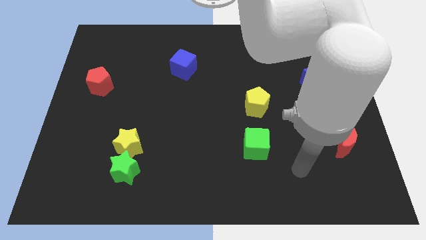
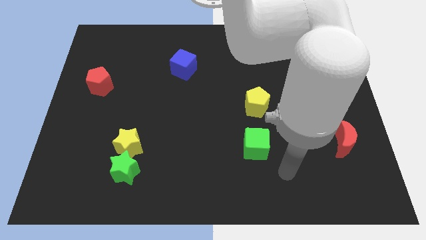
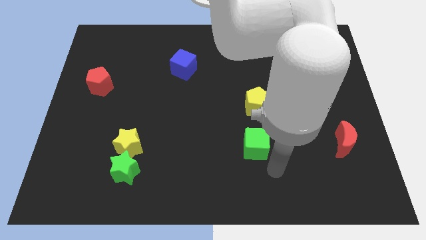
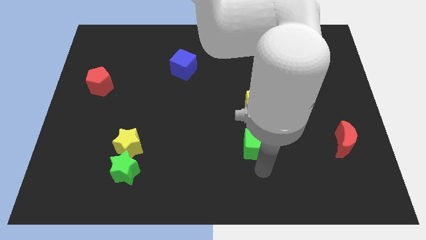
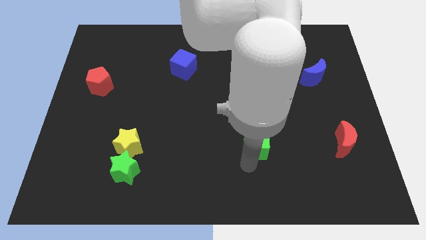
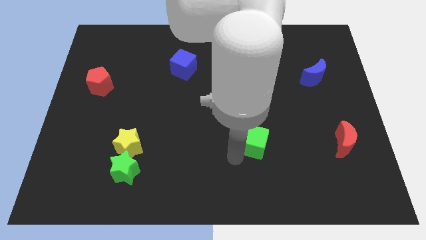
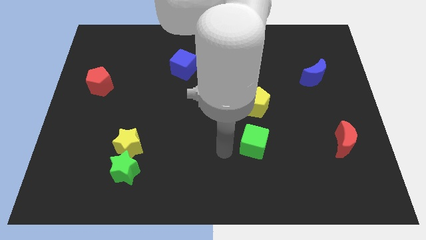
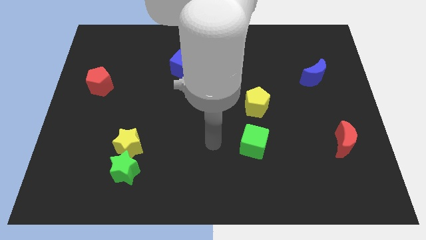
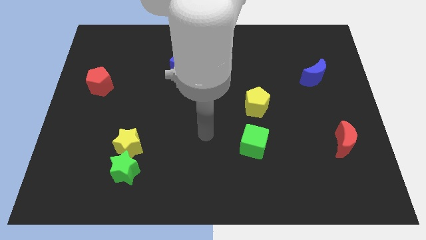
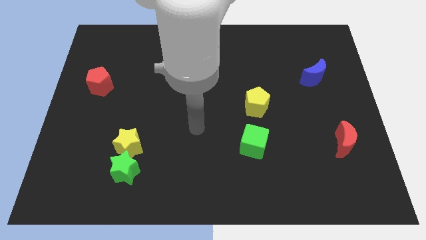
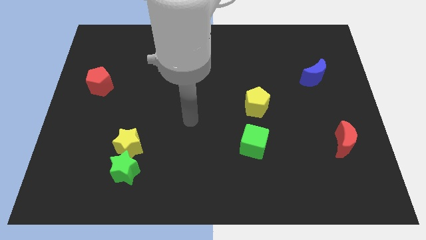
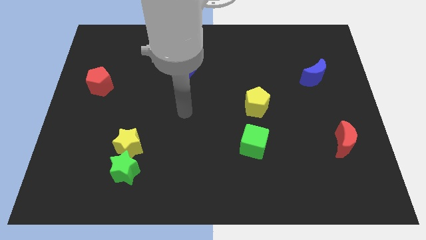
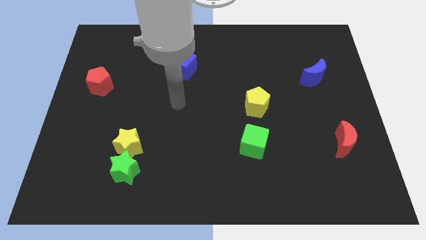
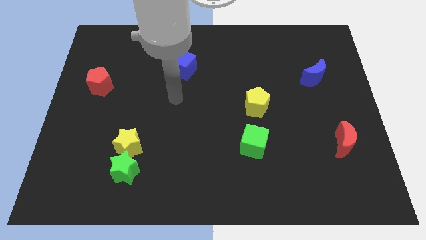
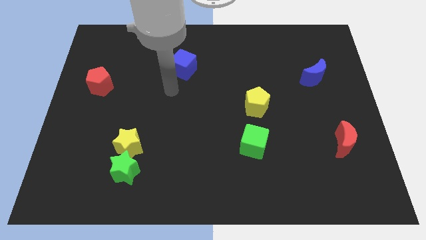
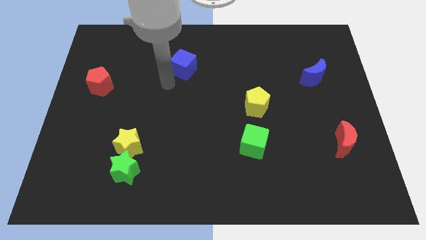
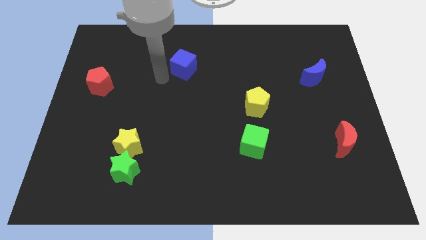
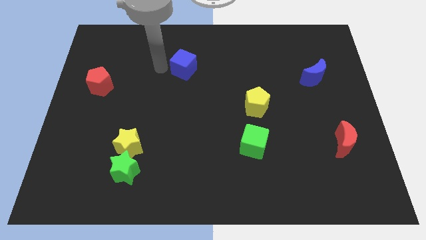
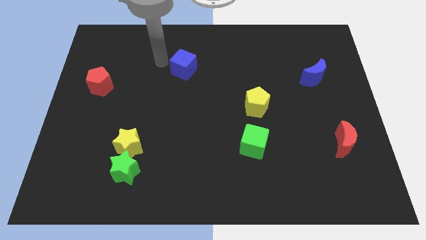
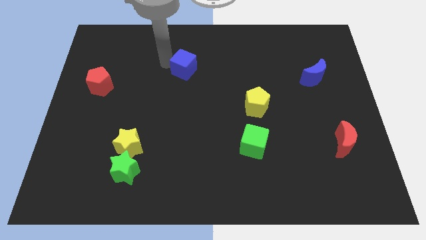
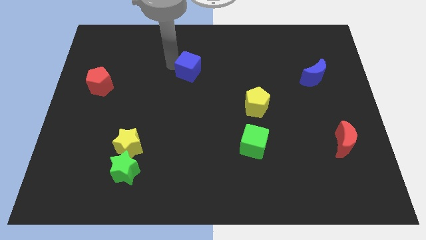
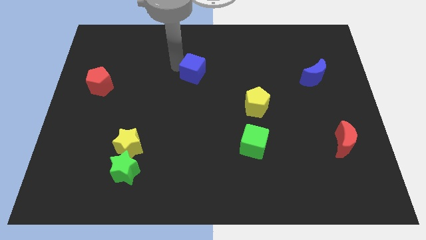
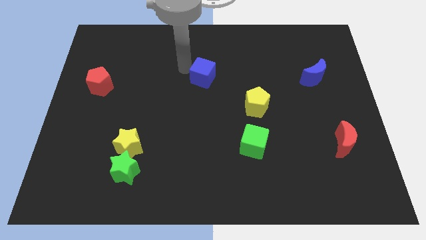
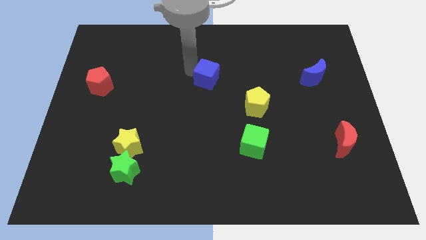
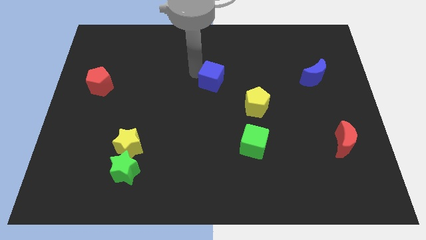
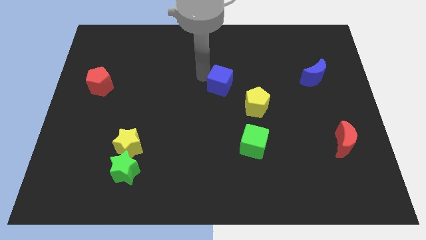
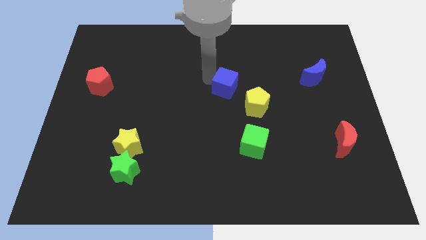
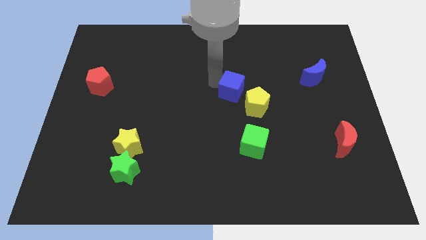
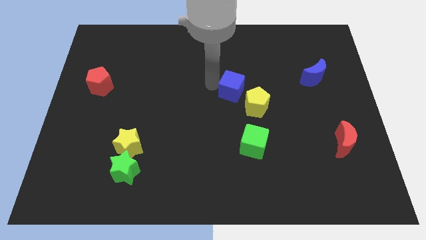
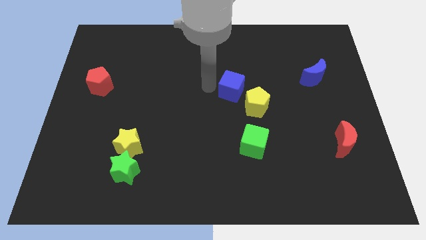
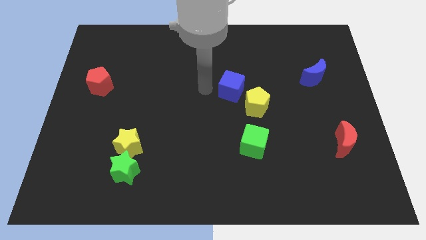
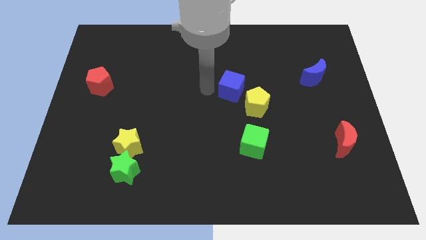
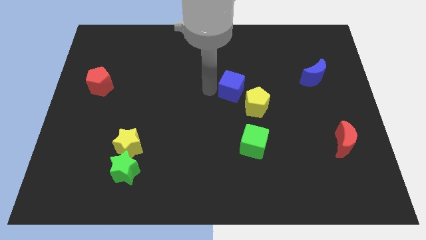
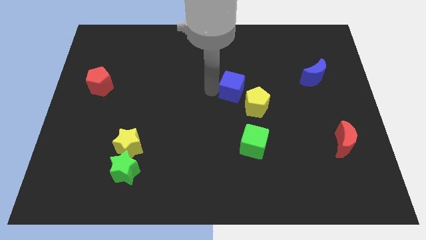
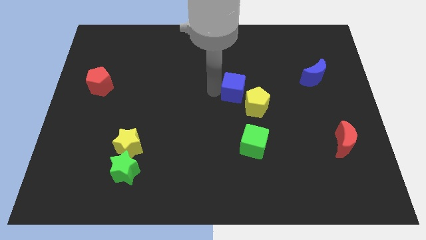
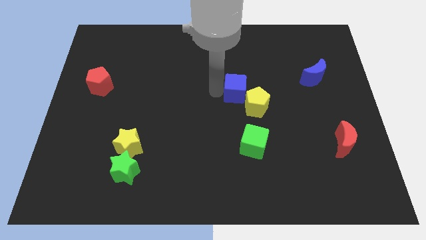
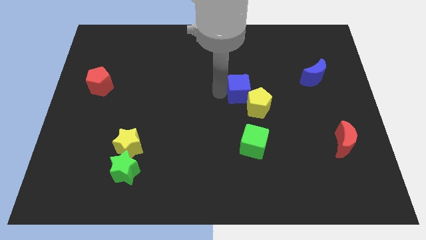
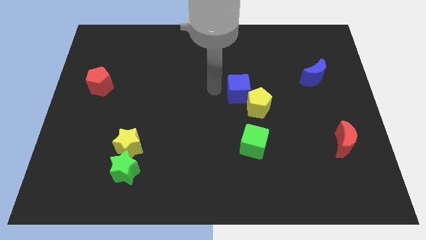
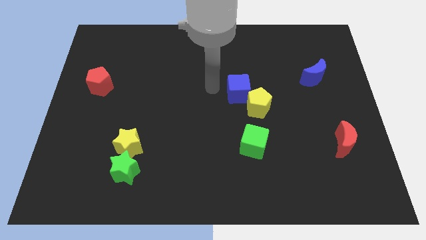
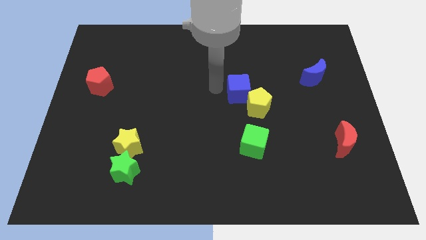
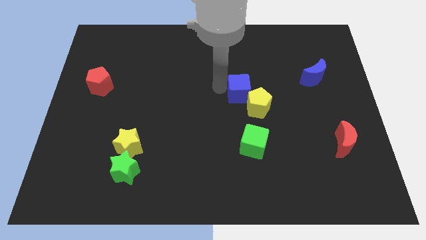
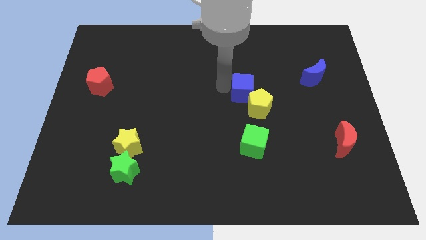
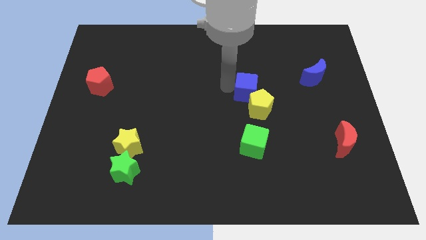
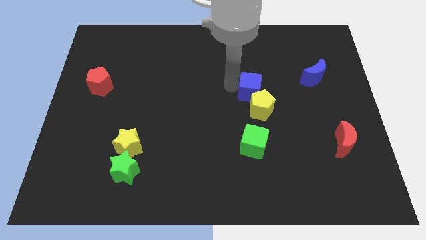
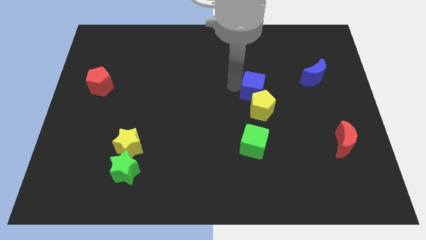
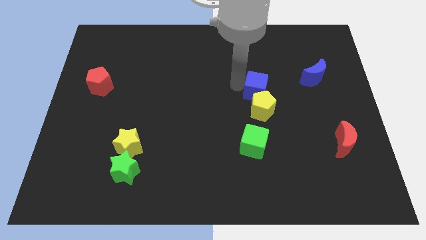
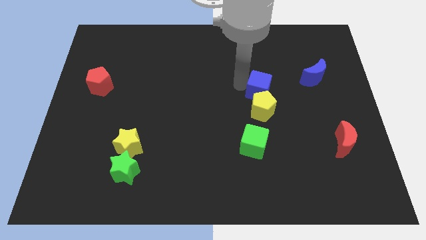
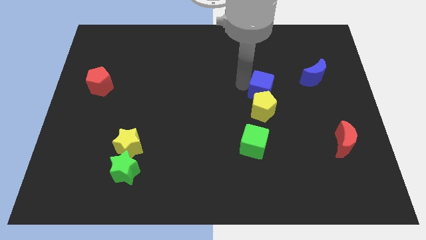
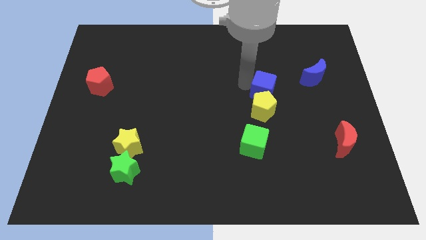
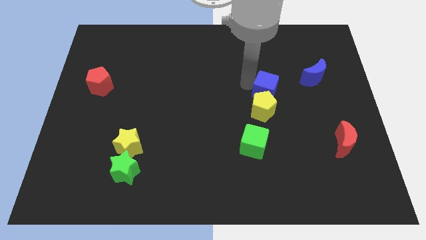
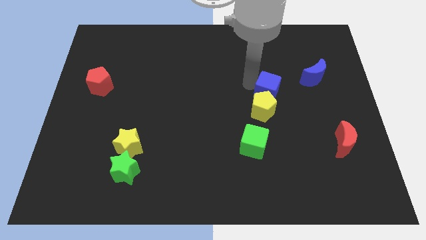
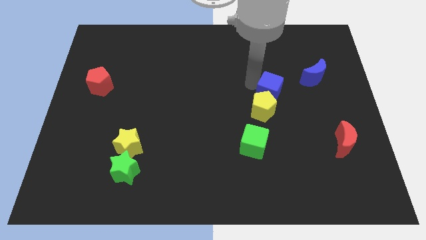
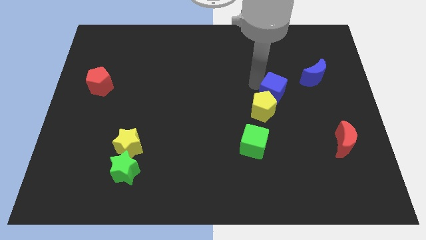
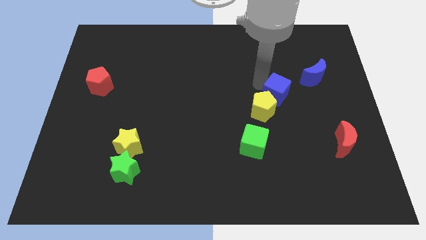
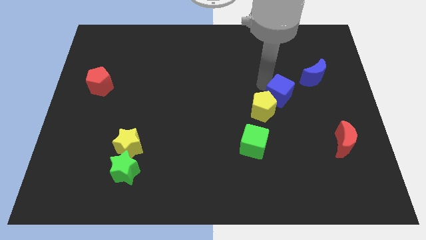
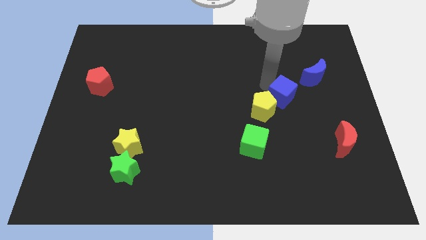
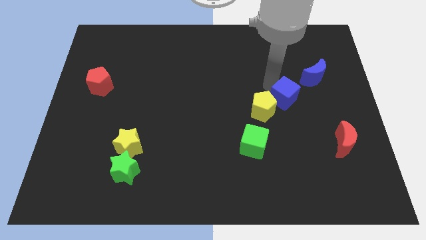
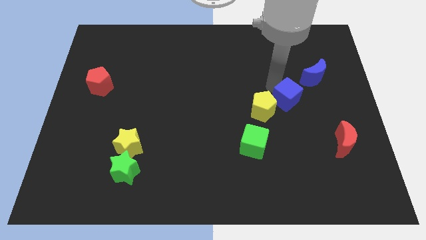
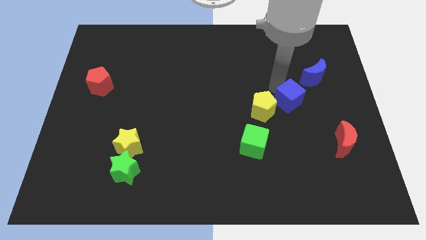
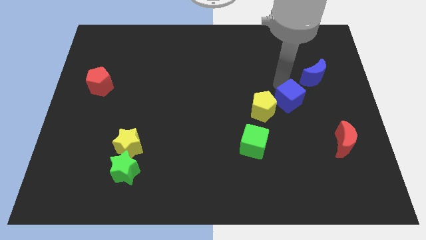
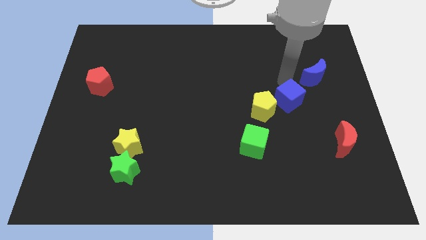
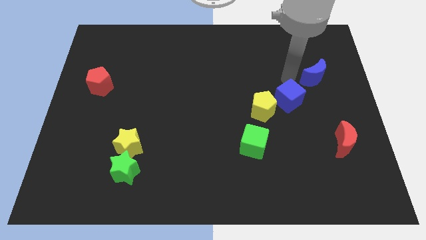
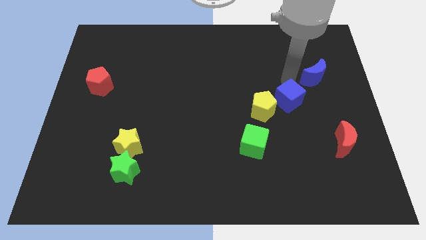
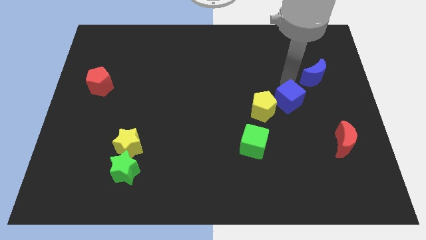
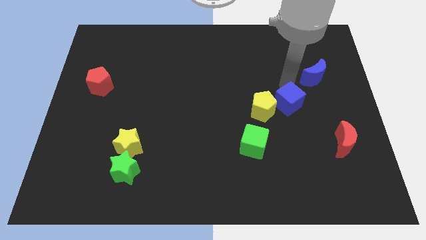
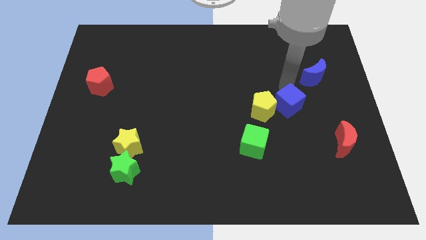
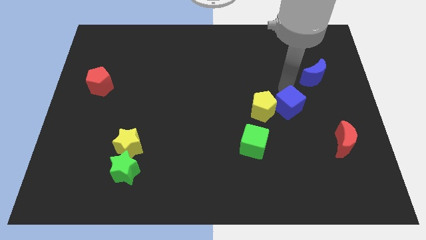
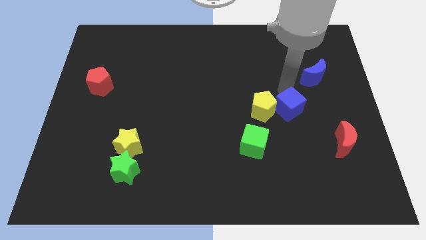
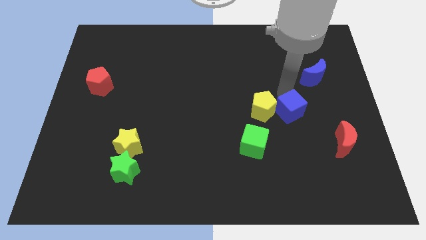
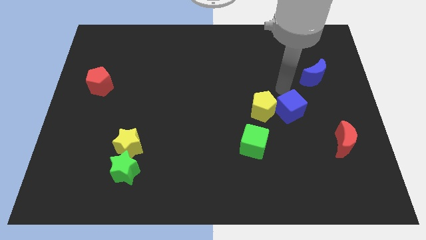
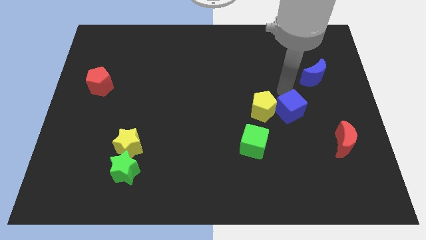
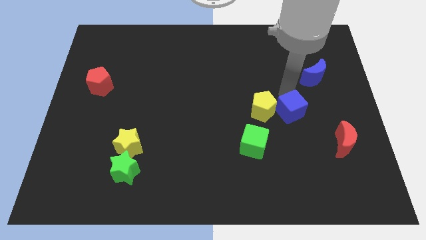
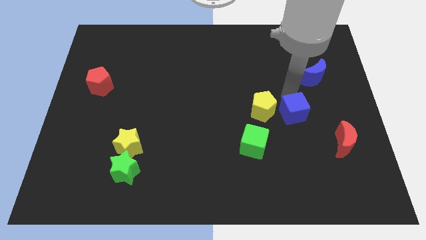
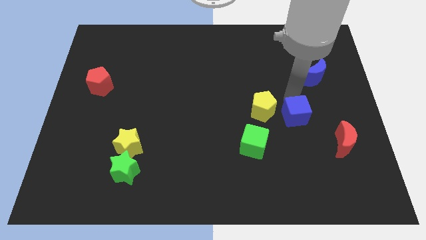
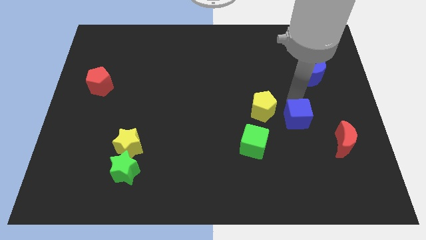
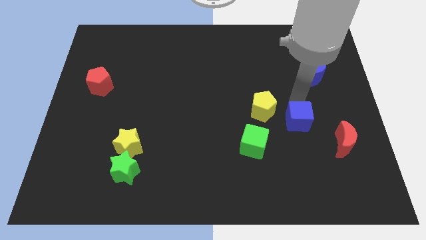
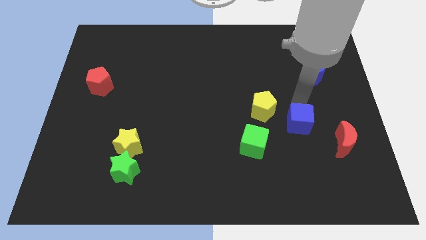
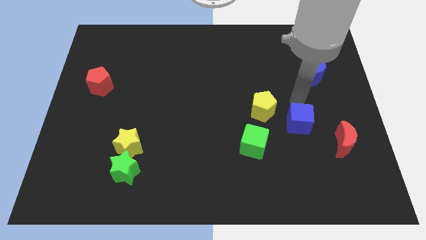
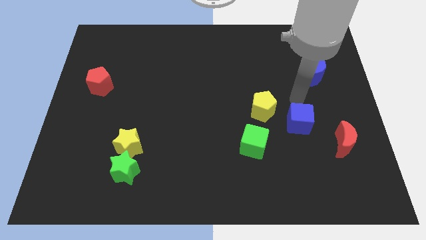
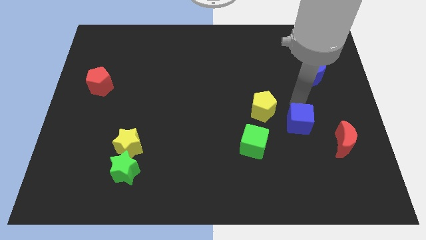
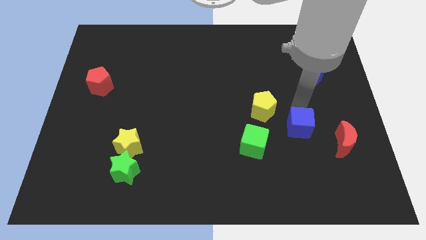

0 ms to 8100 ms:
move the blue cube just right of the green cube
